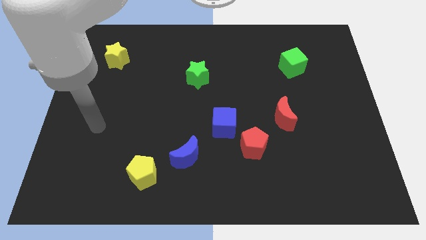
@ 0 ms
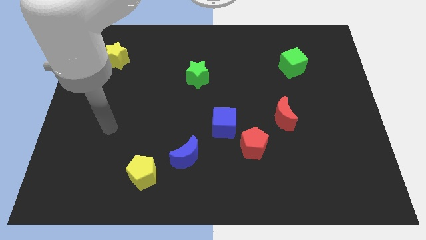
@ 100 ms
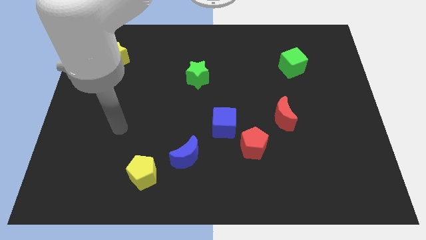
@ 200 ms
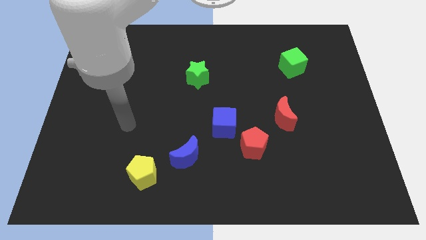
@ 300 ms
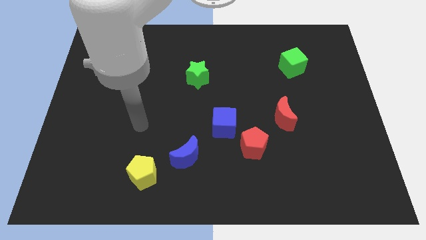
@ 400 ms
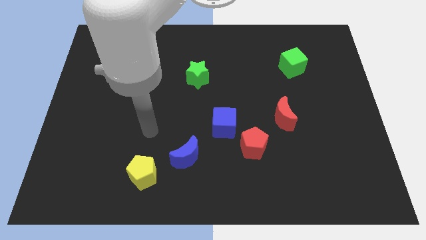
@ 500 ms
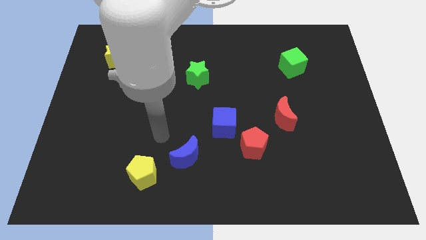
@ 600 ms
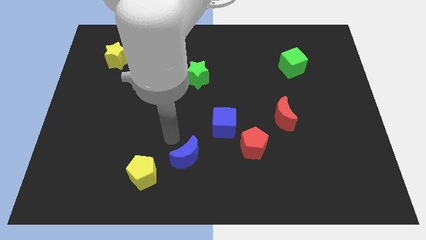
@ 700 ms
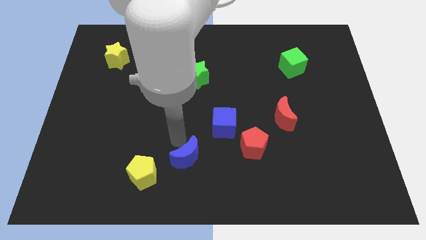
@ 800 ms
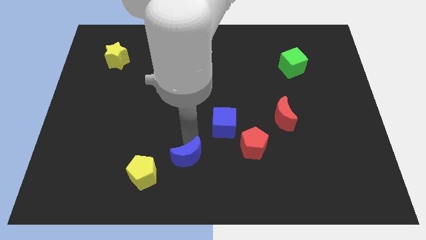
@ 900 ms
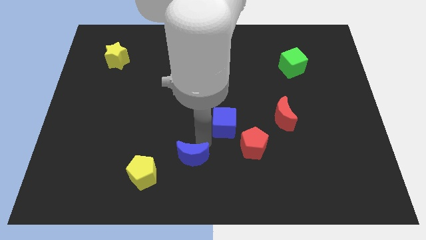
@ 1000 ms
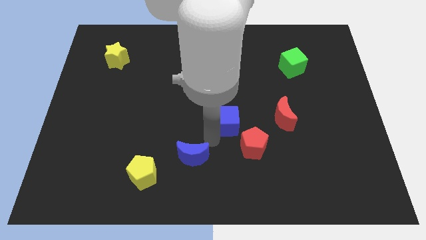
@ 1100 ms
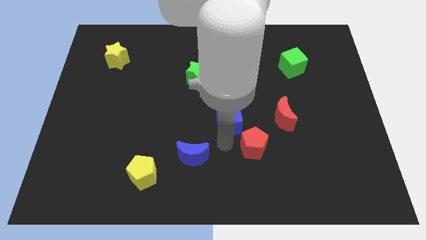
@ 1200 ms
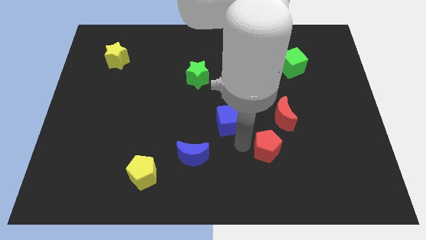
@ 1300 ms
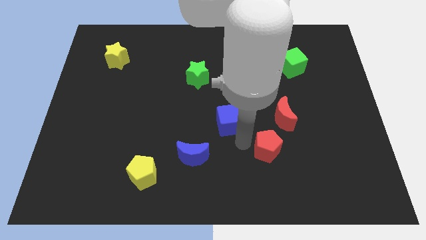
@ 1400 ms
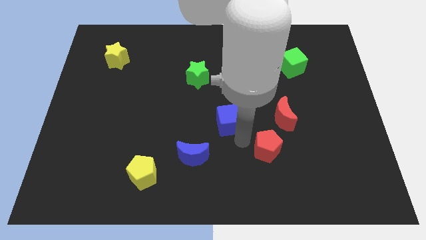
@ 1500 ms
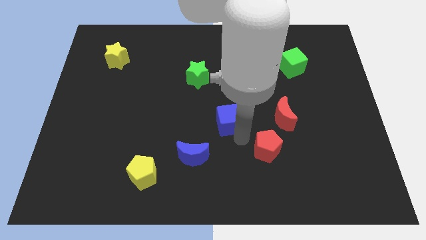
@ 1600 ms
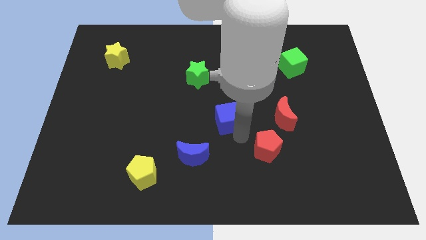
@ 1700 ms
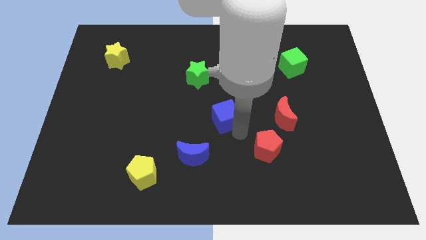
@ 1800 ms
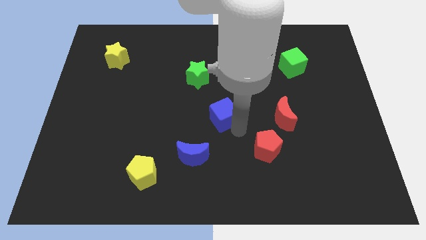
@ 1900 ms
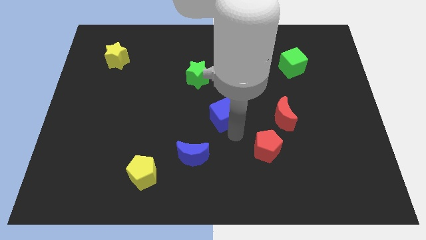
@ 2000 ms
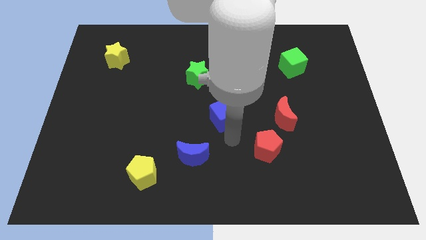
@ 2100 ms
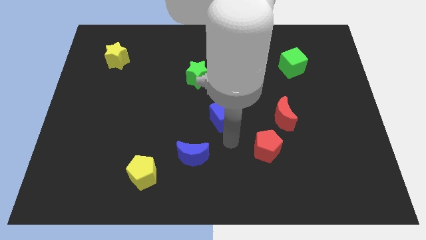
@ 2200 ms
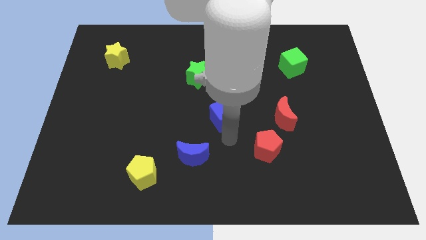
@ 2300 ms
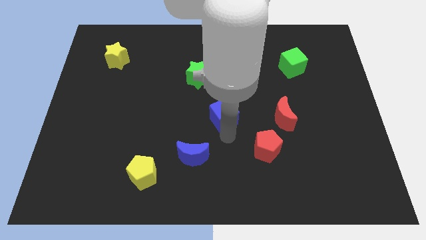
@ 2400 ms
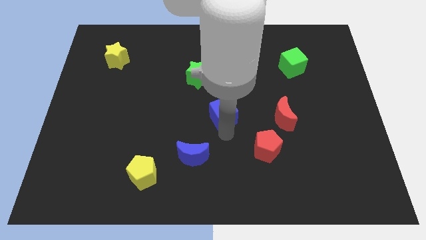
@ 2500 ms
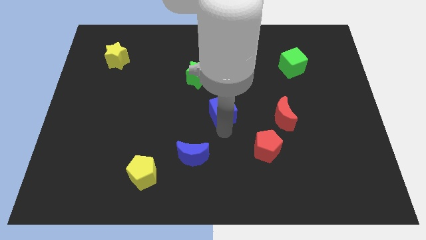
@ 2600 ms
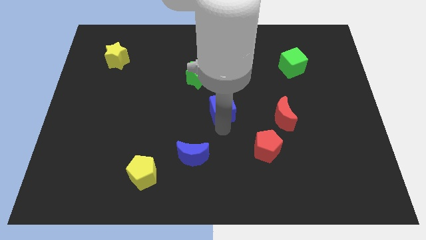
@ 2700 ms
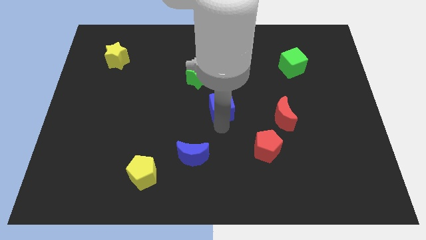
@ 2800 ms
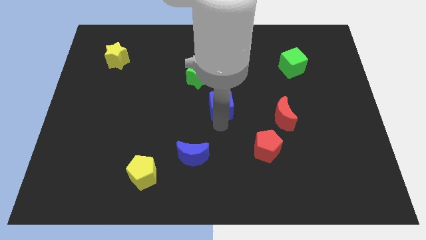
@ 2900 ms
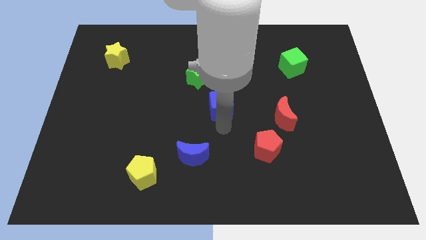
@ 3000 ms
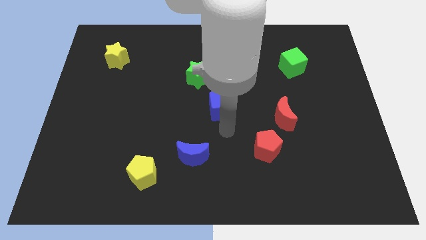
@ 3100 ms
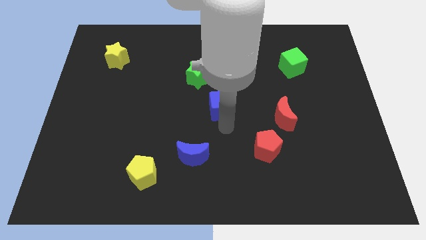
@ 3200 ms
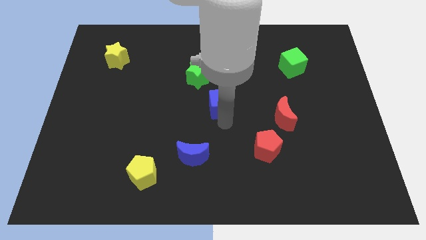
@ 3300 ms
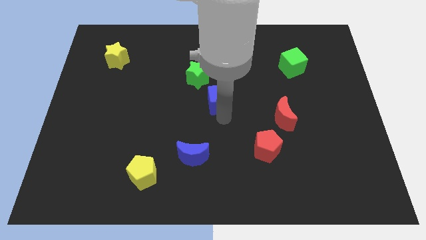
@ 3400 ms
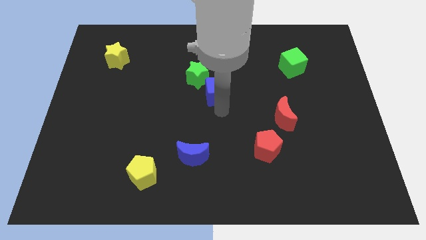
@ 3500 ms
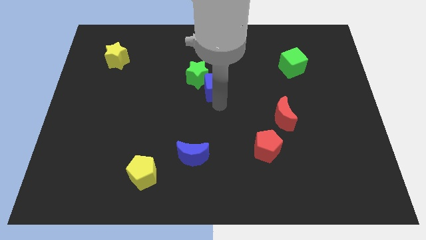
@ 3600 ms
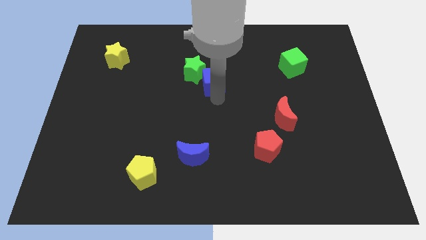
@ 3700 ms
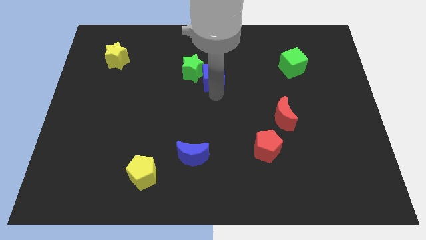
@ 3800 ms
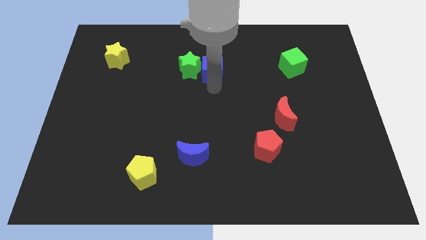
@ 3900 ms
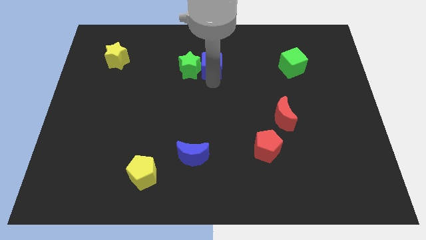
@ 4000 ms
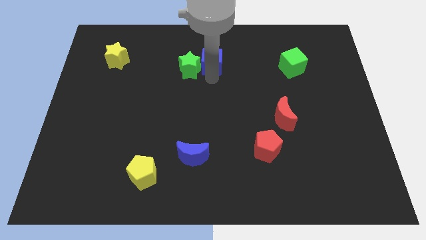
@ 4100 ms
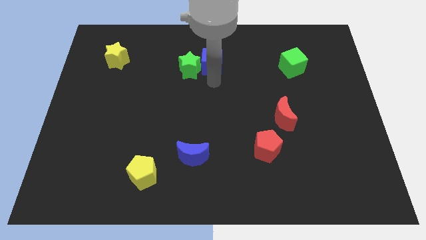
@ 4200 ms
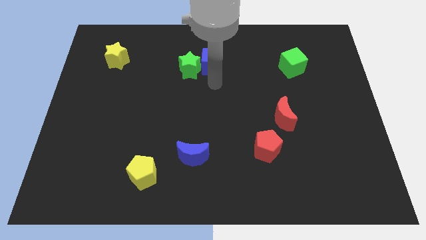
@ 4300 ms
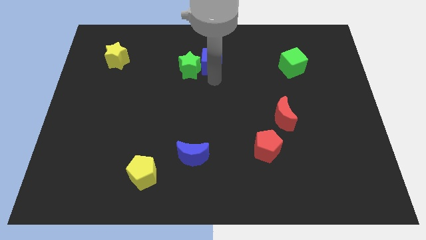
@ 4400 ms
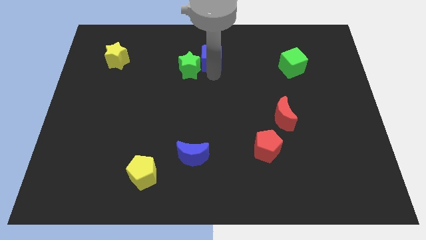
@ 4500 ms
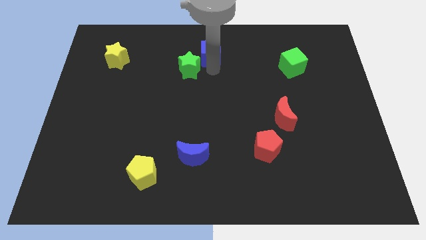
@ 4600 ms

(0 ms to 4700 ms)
put the blue cube to the top side

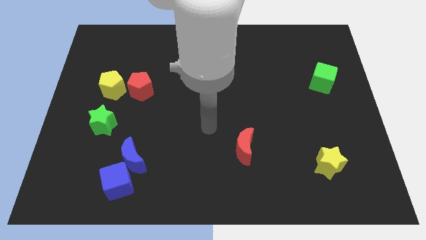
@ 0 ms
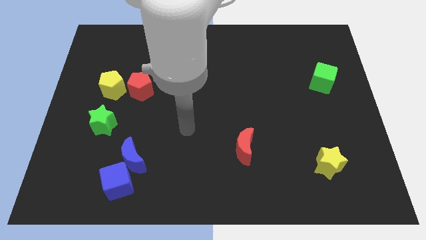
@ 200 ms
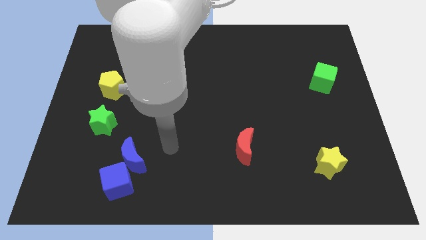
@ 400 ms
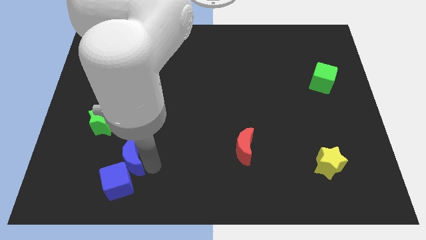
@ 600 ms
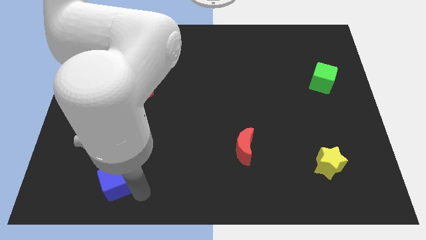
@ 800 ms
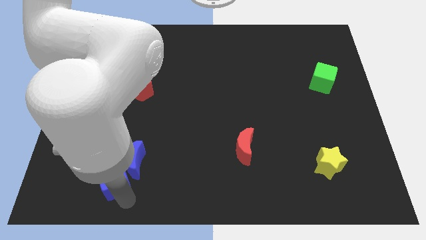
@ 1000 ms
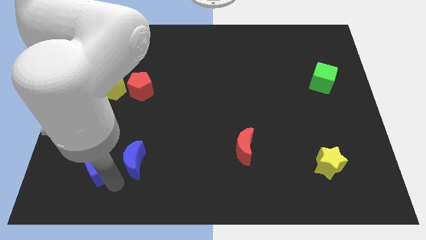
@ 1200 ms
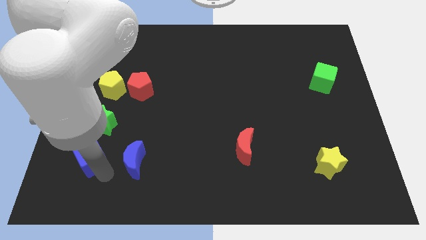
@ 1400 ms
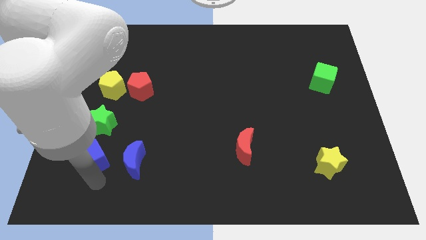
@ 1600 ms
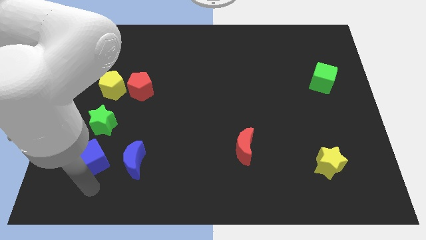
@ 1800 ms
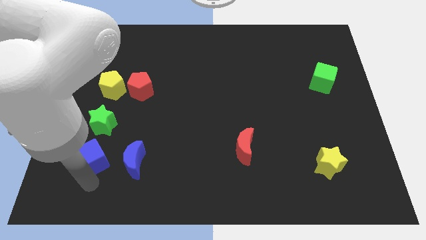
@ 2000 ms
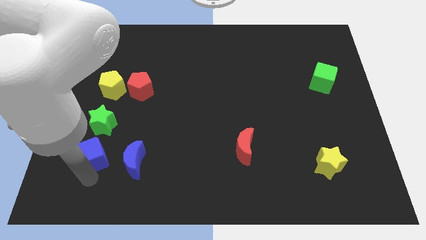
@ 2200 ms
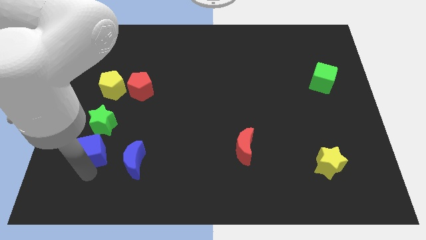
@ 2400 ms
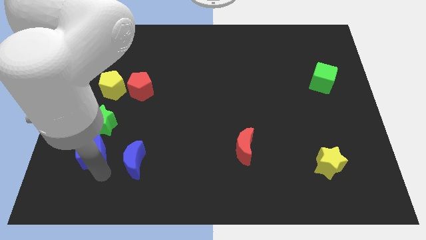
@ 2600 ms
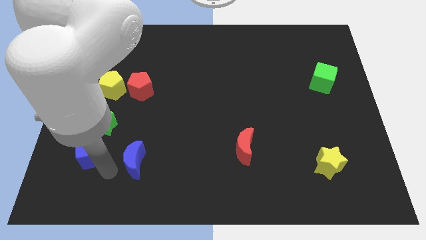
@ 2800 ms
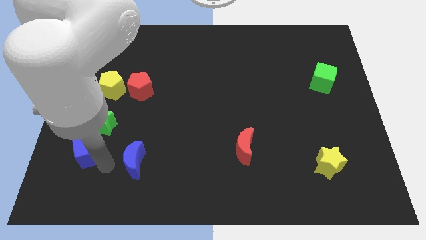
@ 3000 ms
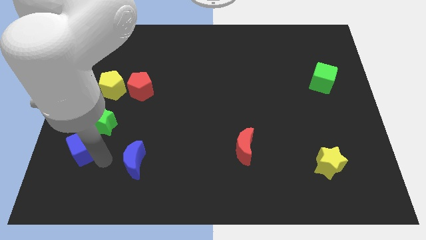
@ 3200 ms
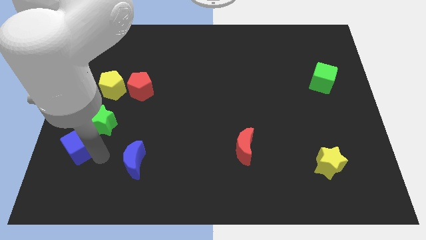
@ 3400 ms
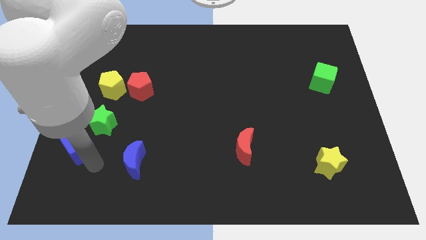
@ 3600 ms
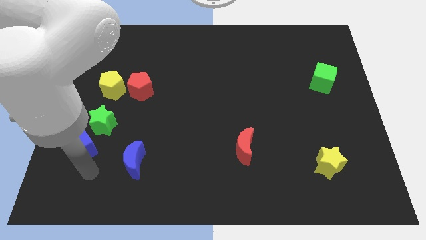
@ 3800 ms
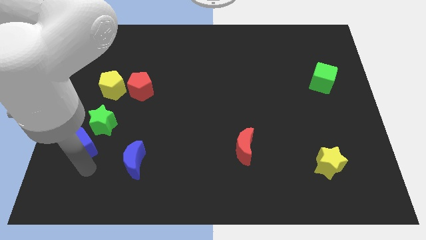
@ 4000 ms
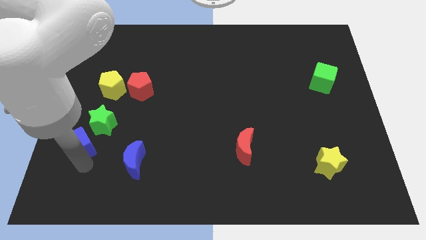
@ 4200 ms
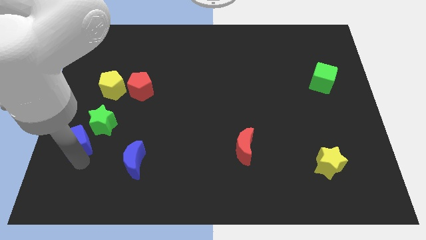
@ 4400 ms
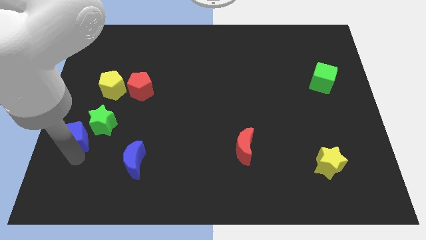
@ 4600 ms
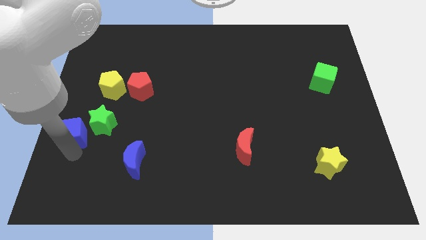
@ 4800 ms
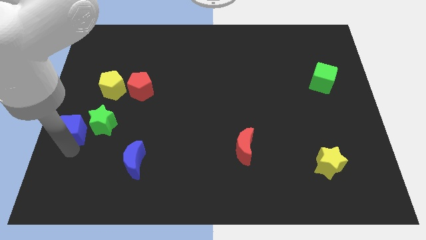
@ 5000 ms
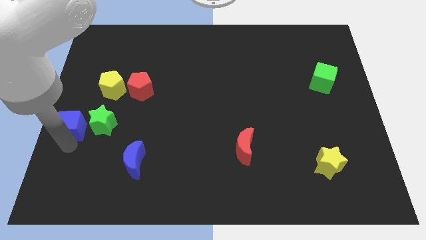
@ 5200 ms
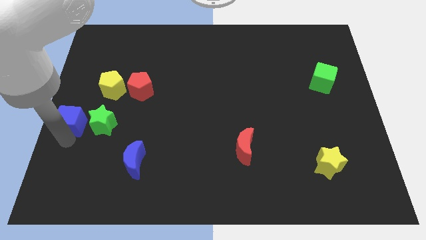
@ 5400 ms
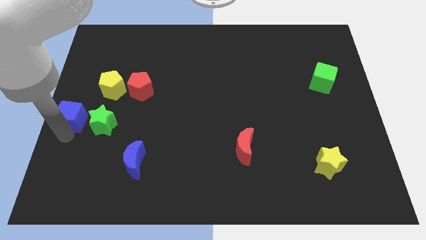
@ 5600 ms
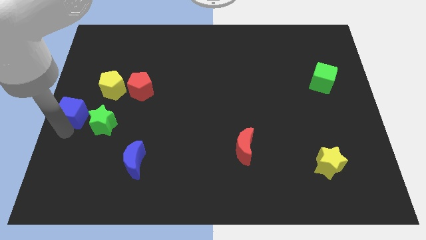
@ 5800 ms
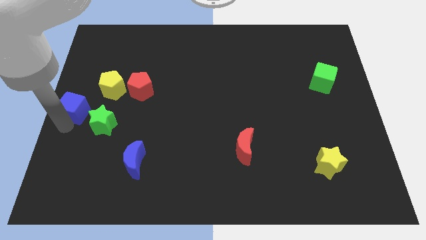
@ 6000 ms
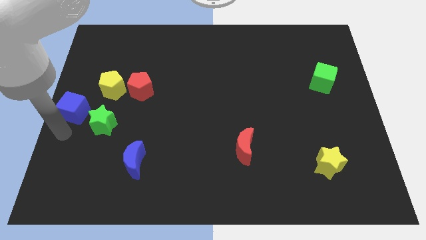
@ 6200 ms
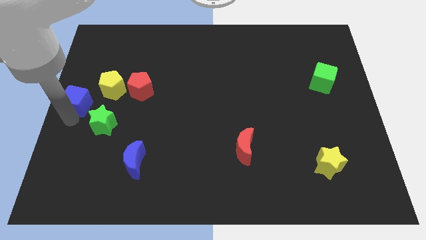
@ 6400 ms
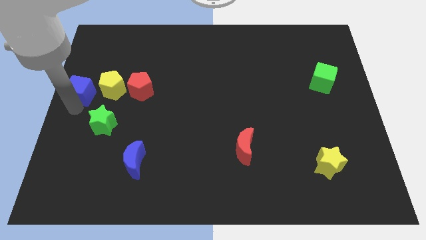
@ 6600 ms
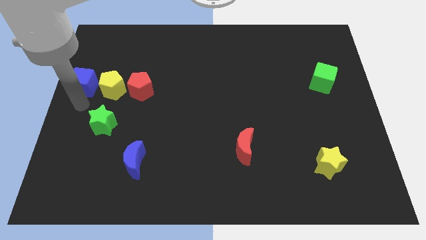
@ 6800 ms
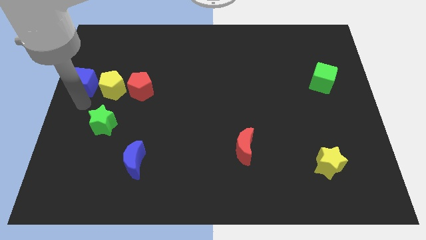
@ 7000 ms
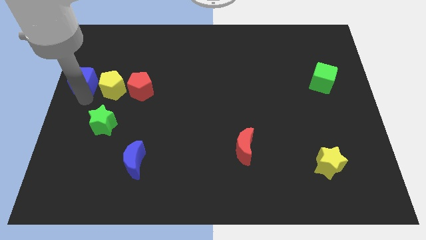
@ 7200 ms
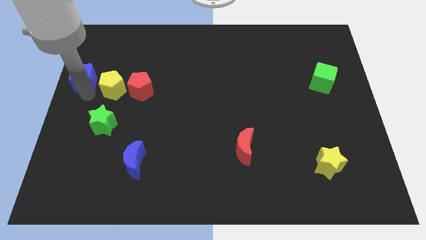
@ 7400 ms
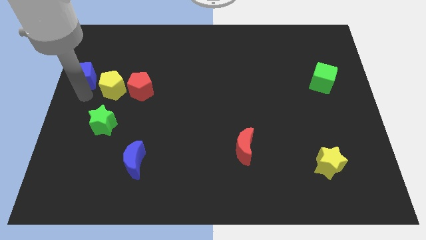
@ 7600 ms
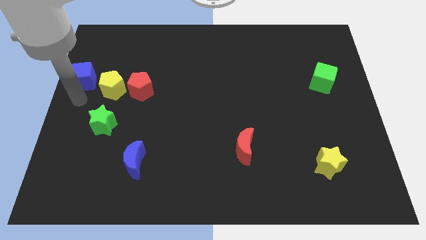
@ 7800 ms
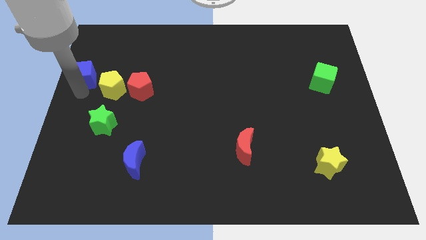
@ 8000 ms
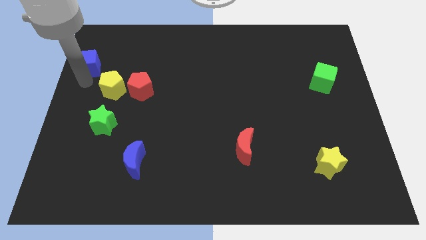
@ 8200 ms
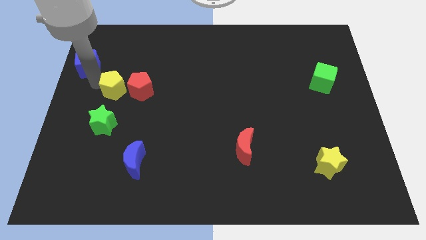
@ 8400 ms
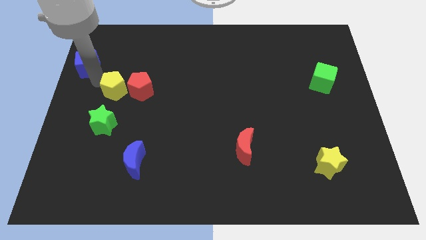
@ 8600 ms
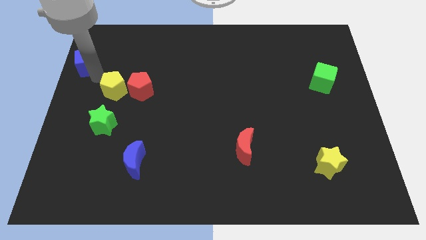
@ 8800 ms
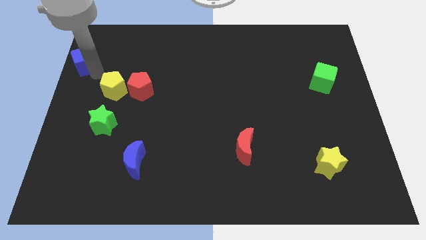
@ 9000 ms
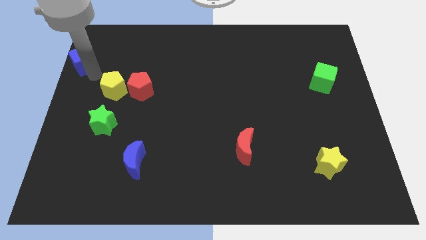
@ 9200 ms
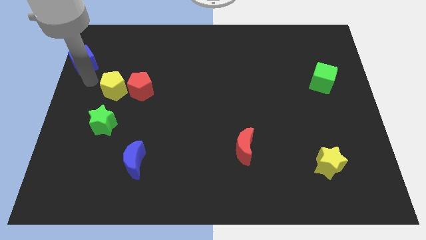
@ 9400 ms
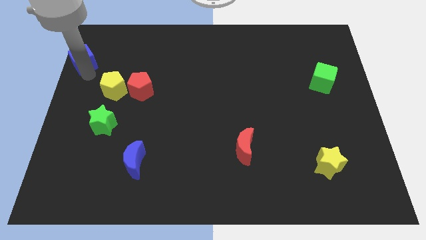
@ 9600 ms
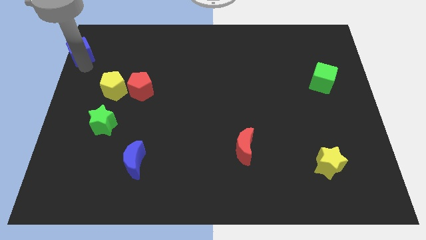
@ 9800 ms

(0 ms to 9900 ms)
move the blue cube to the top left
